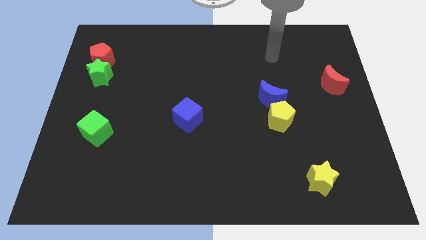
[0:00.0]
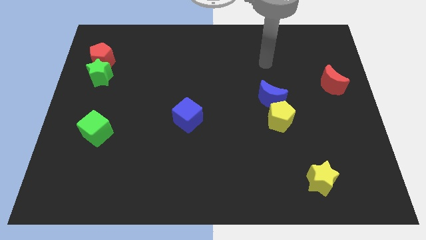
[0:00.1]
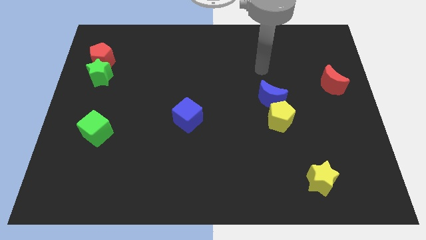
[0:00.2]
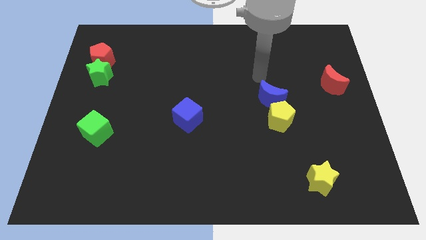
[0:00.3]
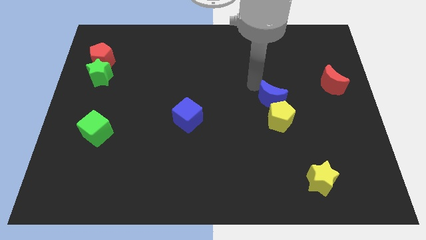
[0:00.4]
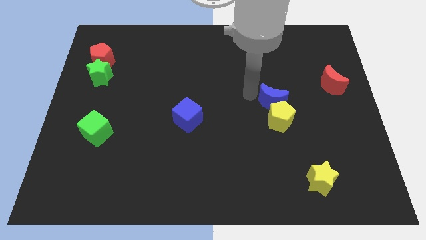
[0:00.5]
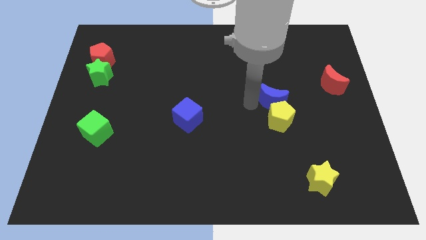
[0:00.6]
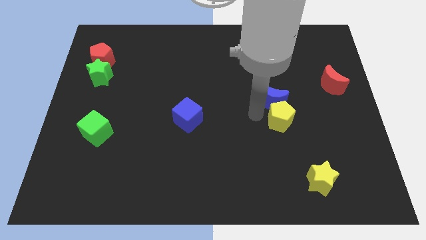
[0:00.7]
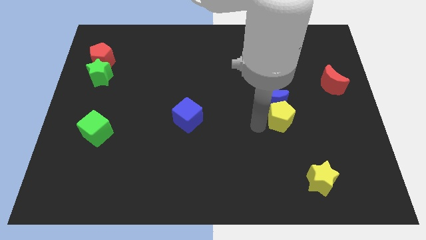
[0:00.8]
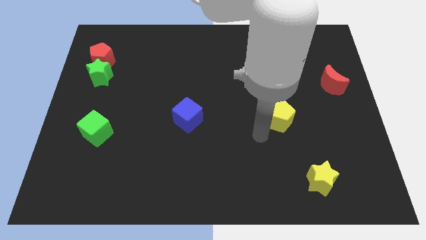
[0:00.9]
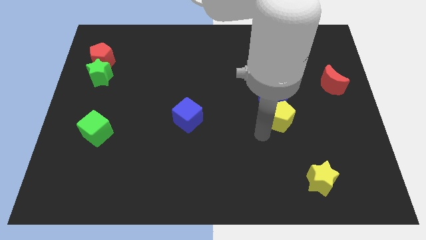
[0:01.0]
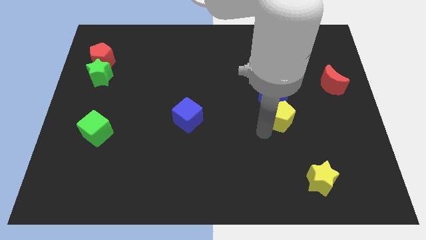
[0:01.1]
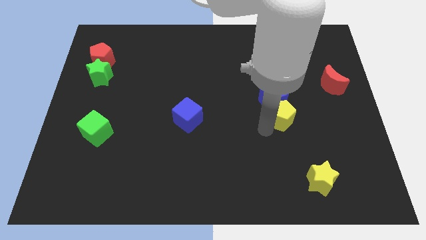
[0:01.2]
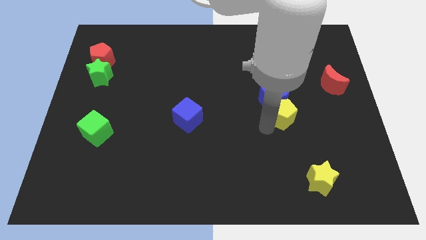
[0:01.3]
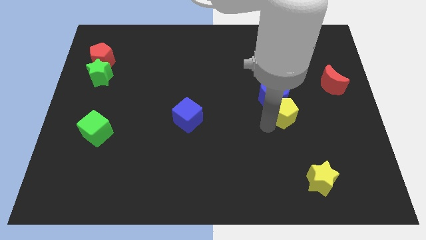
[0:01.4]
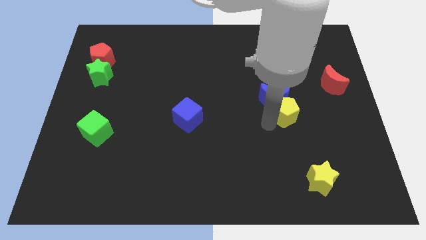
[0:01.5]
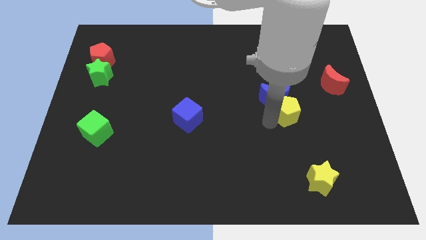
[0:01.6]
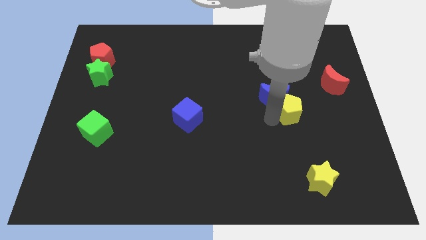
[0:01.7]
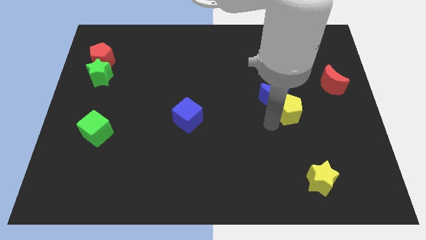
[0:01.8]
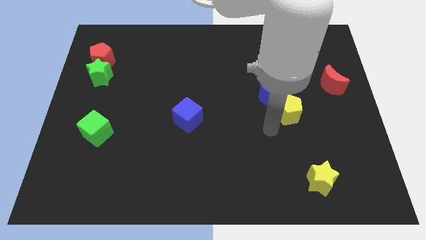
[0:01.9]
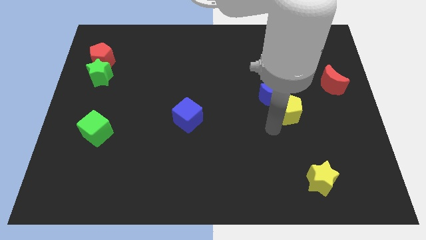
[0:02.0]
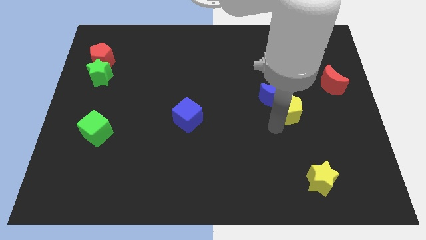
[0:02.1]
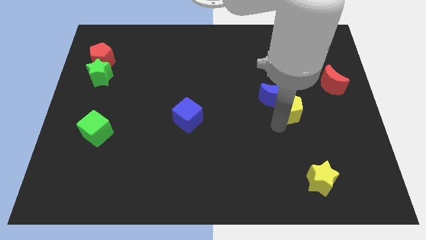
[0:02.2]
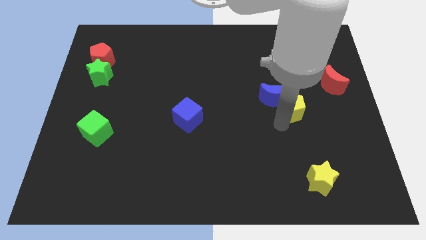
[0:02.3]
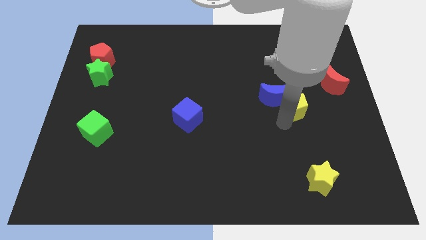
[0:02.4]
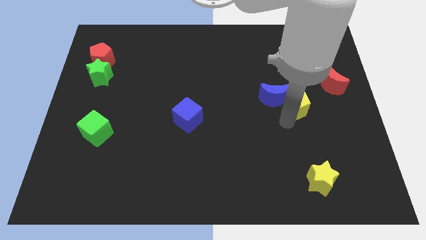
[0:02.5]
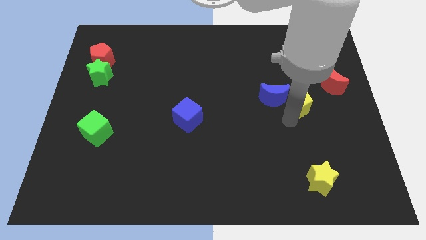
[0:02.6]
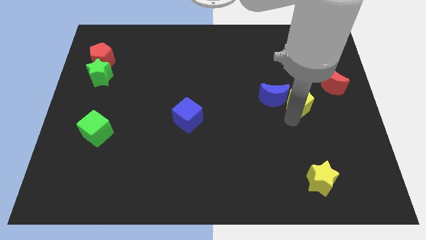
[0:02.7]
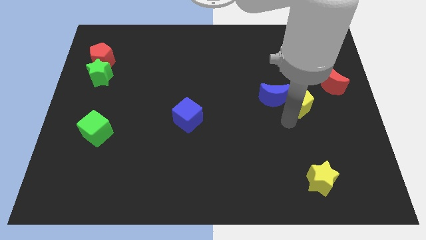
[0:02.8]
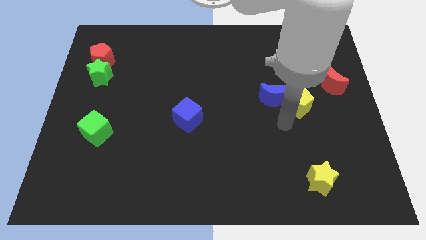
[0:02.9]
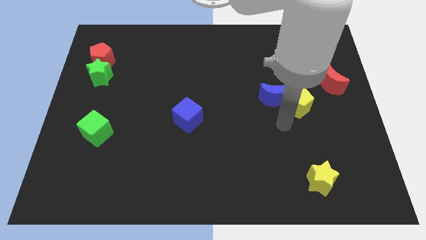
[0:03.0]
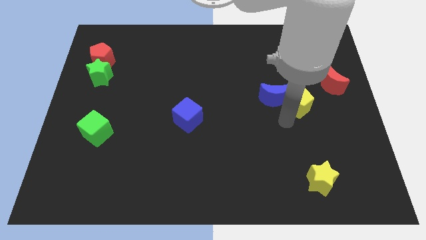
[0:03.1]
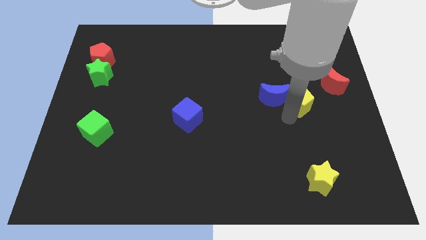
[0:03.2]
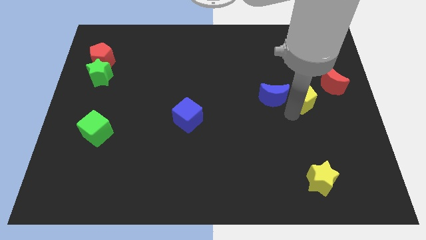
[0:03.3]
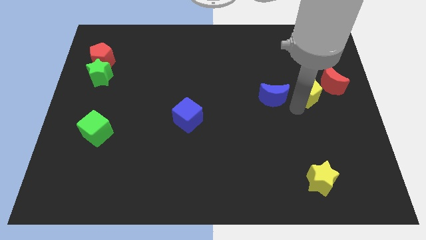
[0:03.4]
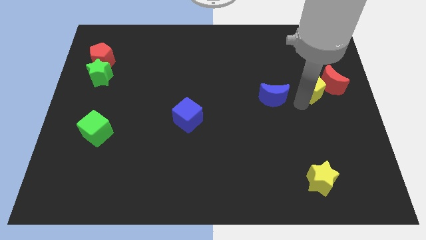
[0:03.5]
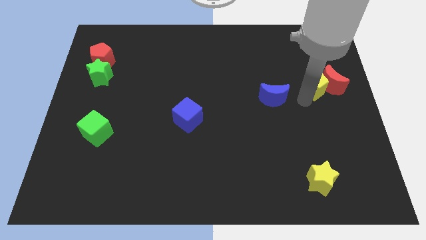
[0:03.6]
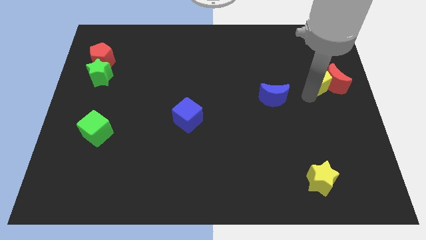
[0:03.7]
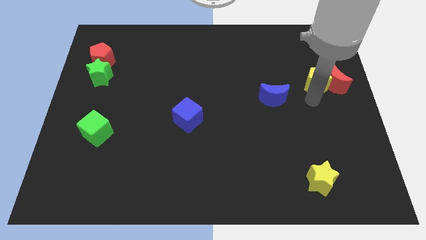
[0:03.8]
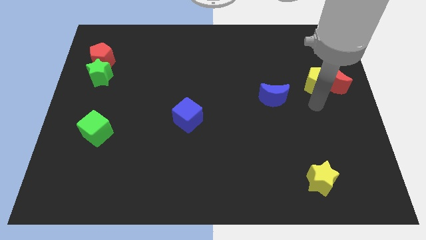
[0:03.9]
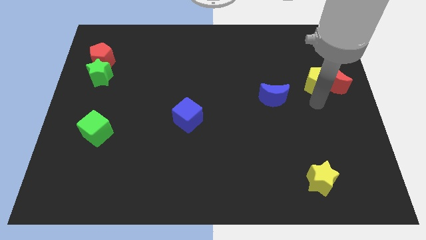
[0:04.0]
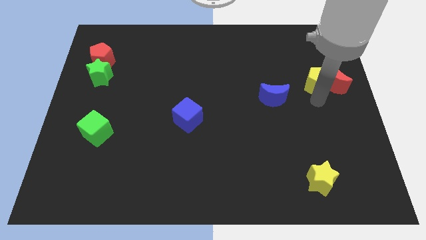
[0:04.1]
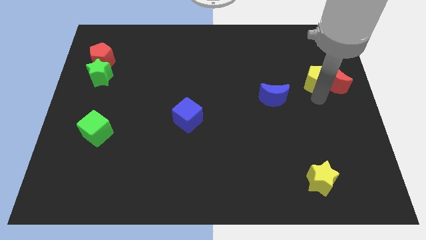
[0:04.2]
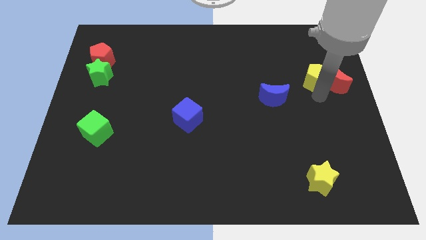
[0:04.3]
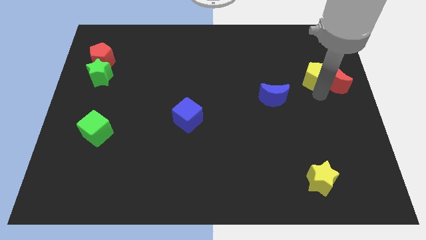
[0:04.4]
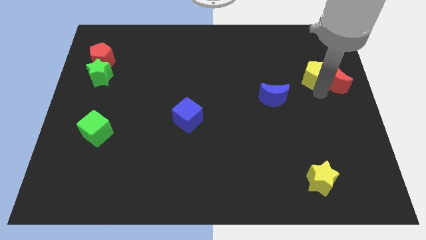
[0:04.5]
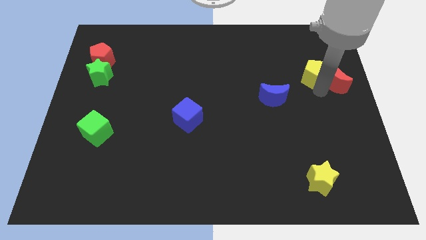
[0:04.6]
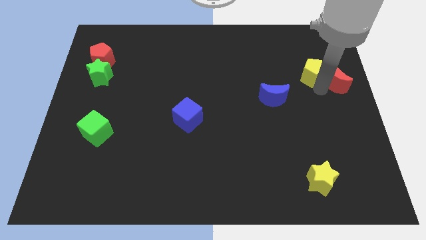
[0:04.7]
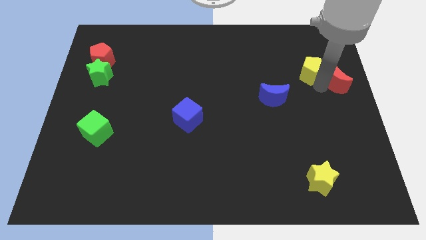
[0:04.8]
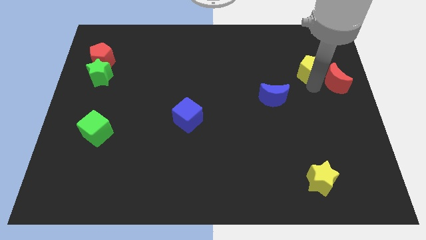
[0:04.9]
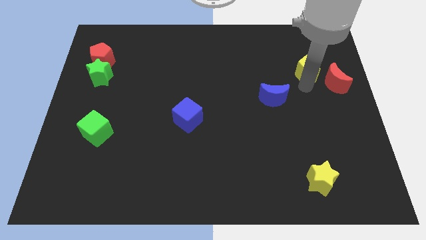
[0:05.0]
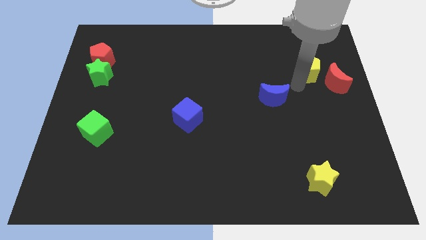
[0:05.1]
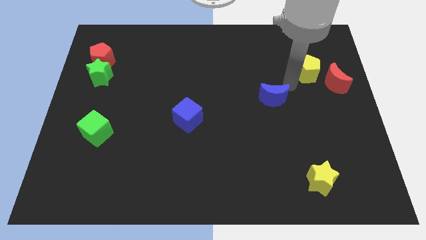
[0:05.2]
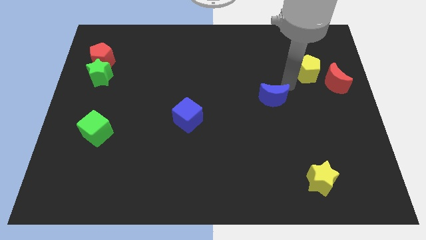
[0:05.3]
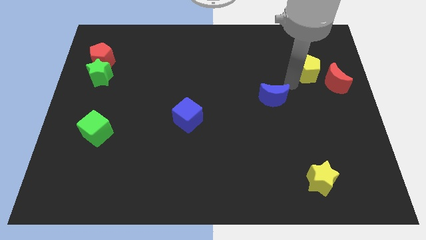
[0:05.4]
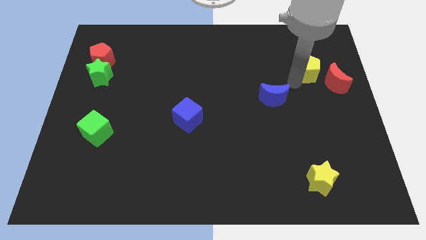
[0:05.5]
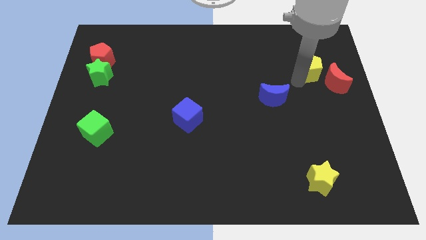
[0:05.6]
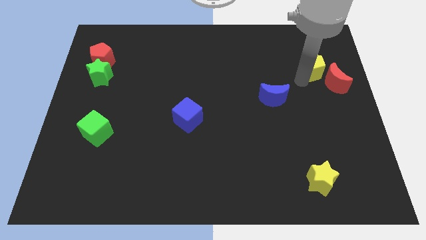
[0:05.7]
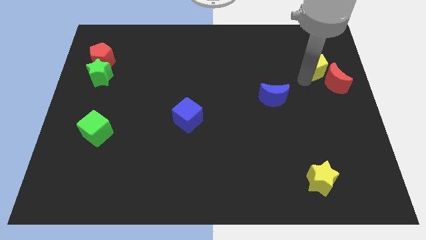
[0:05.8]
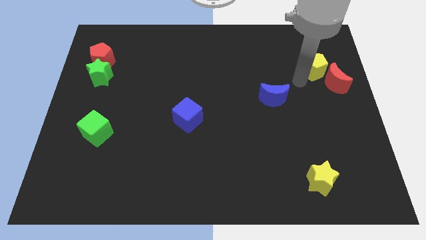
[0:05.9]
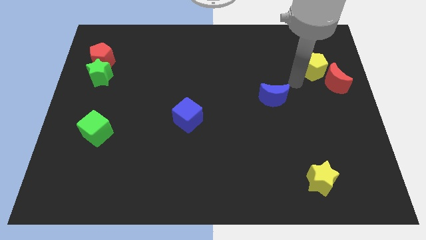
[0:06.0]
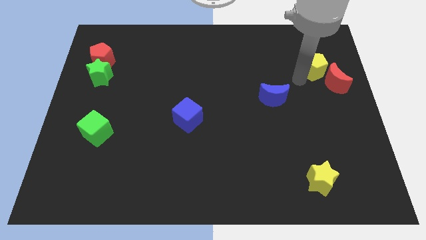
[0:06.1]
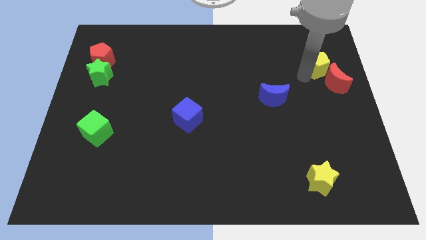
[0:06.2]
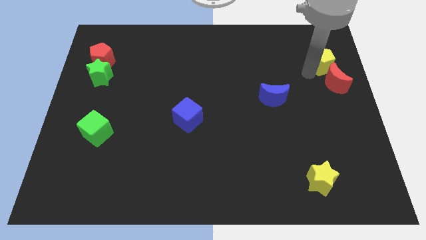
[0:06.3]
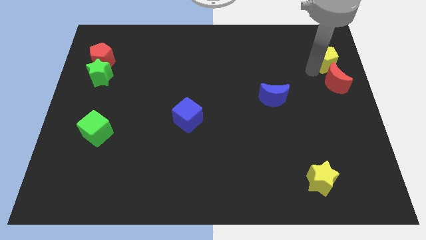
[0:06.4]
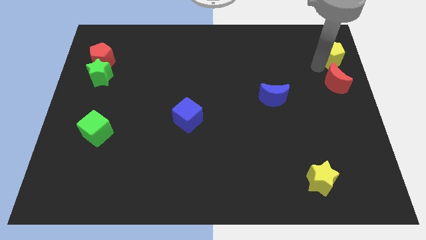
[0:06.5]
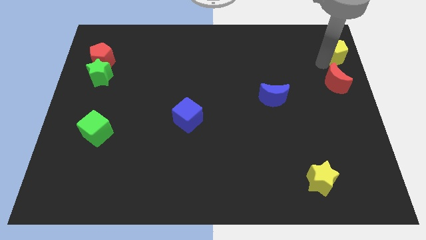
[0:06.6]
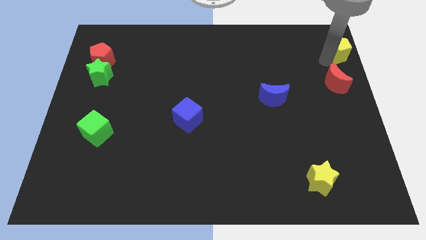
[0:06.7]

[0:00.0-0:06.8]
push the yellow pentagon to the upper right corner
